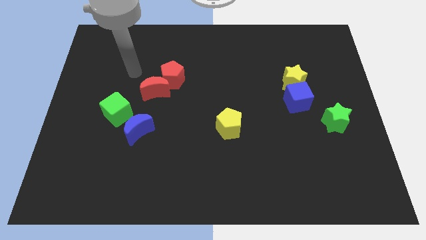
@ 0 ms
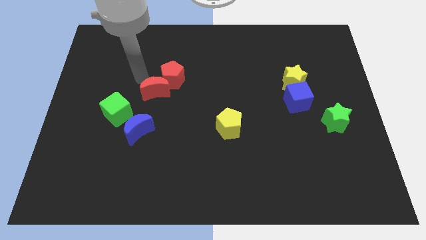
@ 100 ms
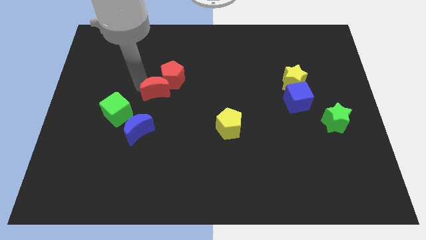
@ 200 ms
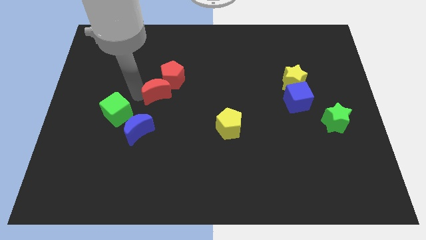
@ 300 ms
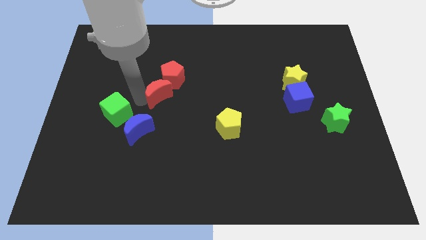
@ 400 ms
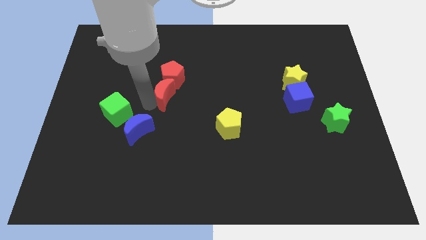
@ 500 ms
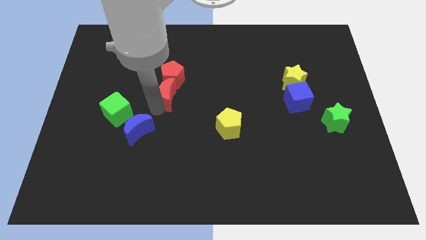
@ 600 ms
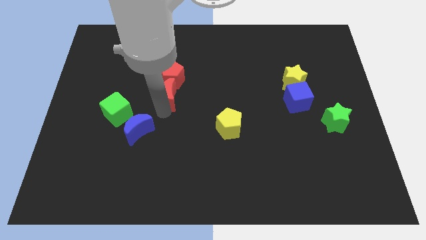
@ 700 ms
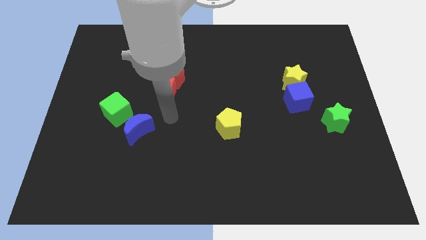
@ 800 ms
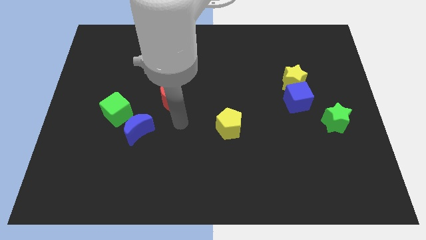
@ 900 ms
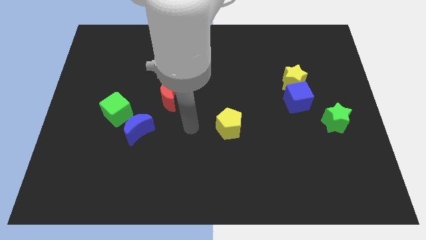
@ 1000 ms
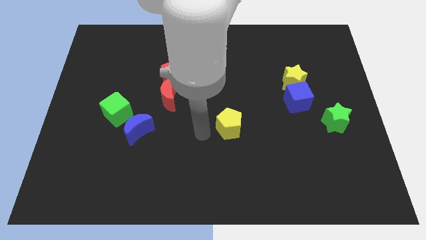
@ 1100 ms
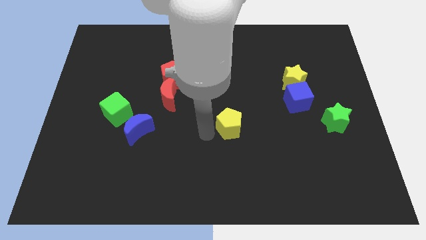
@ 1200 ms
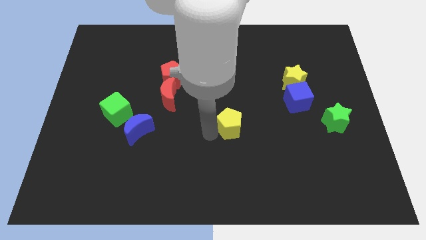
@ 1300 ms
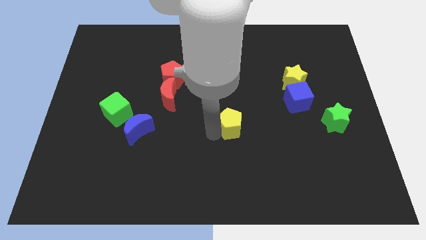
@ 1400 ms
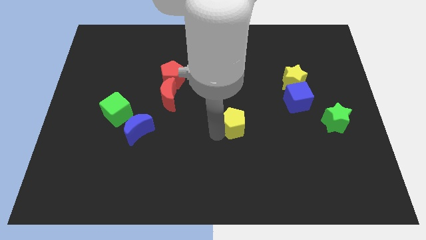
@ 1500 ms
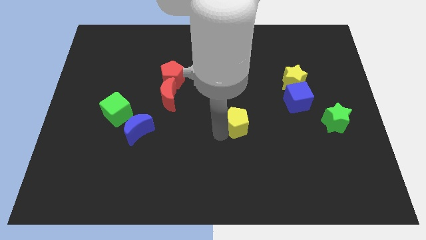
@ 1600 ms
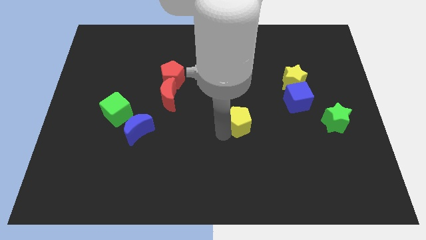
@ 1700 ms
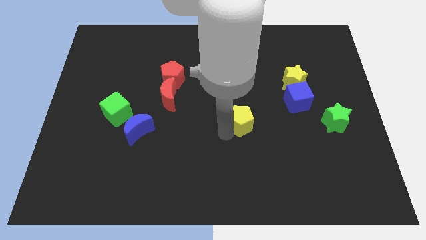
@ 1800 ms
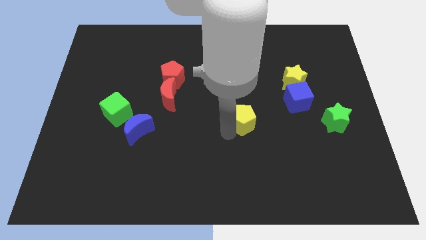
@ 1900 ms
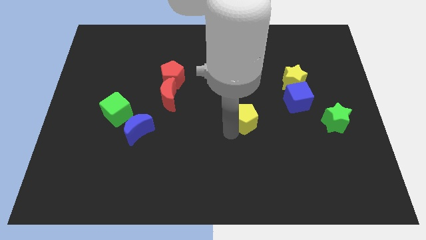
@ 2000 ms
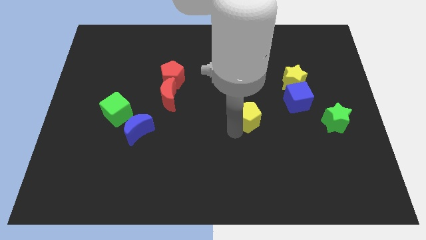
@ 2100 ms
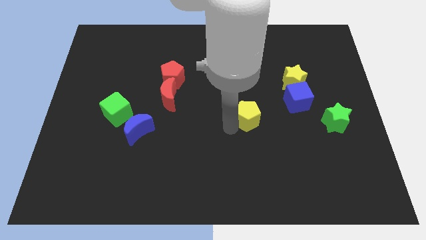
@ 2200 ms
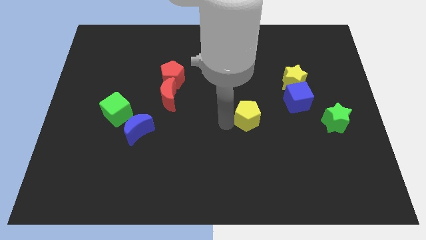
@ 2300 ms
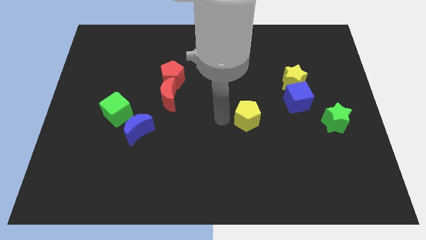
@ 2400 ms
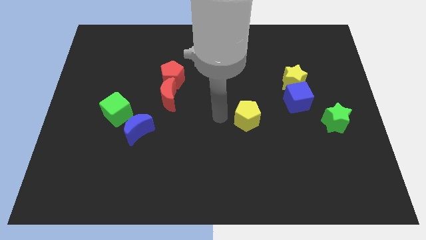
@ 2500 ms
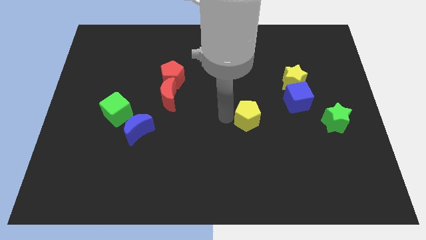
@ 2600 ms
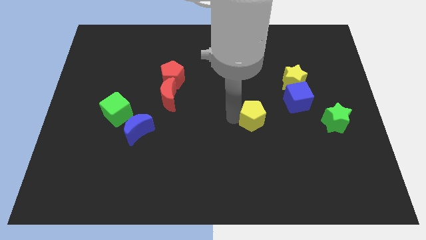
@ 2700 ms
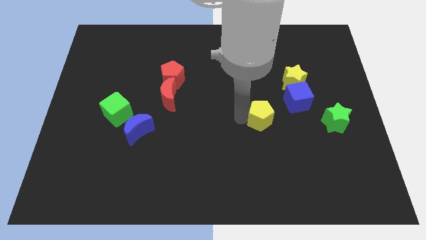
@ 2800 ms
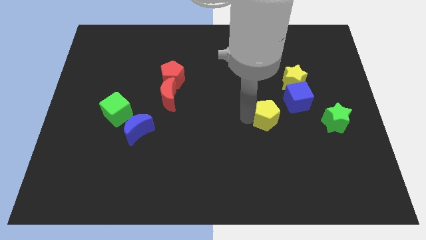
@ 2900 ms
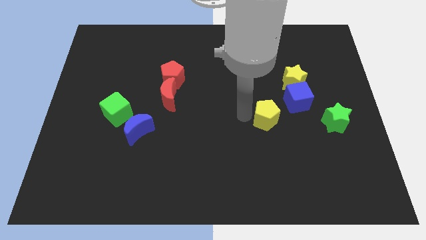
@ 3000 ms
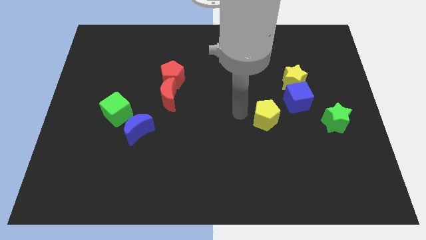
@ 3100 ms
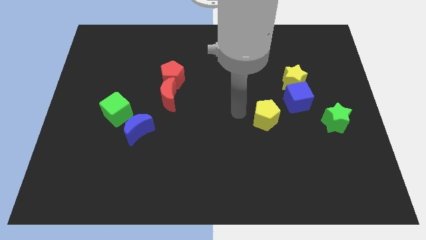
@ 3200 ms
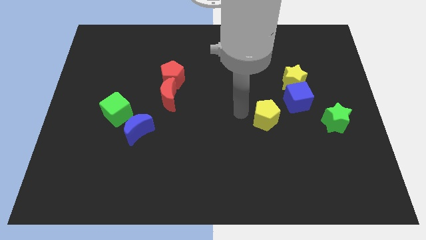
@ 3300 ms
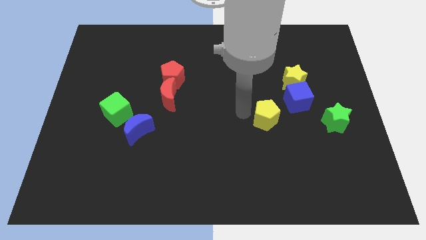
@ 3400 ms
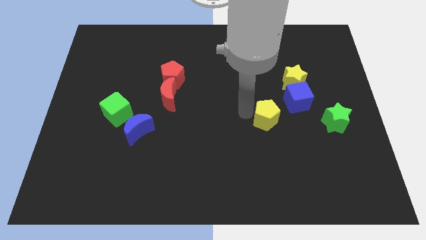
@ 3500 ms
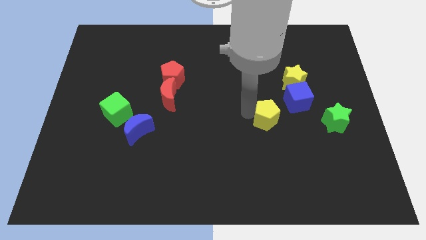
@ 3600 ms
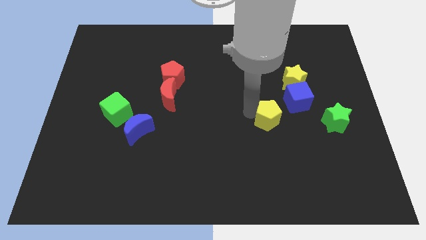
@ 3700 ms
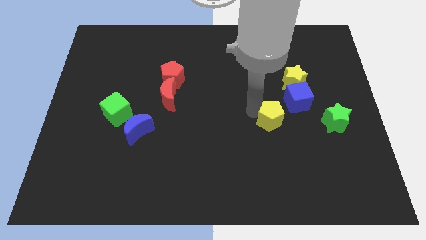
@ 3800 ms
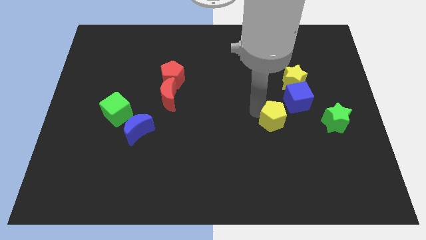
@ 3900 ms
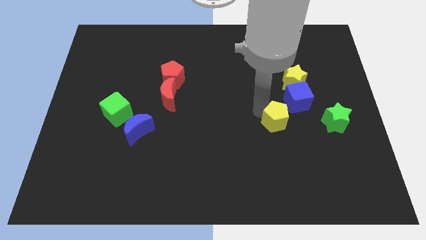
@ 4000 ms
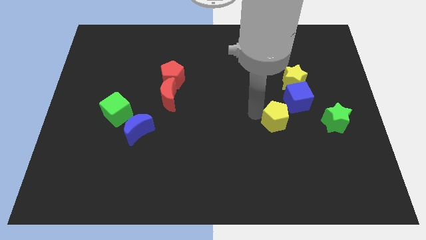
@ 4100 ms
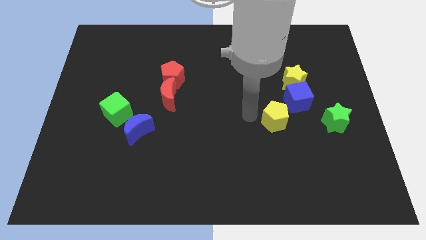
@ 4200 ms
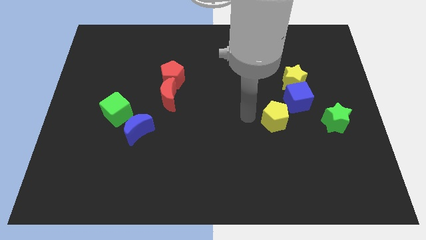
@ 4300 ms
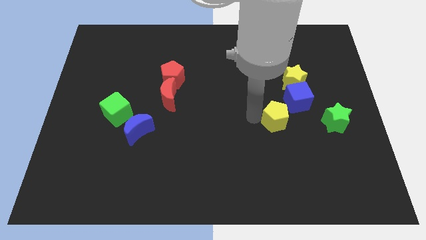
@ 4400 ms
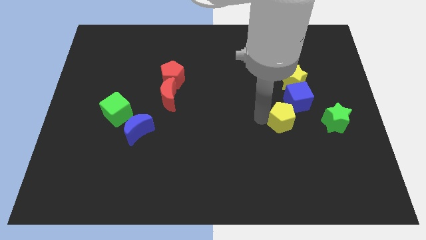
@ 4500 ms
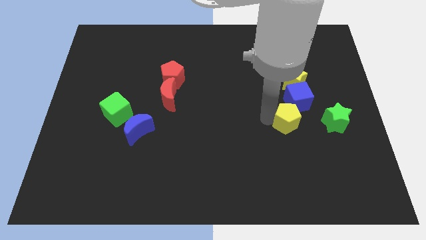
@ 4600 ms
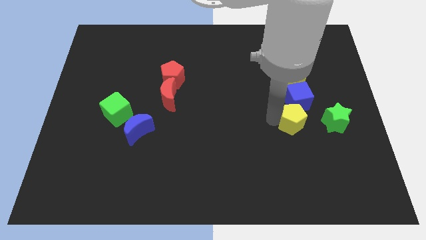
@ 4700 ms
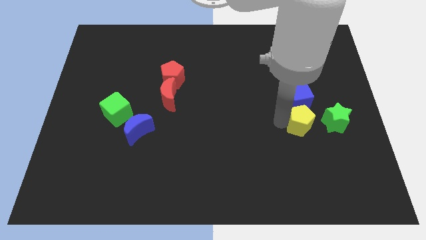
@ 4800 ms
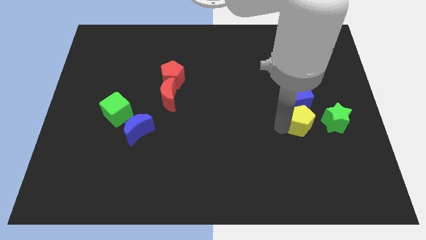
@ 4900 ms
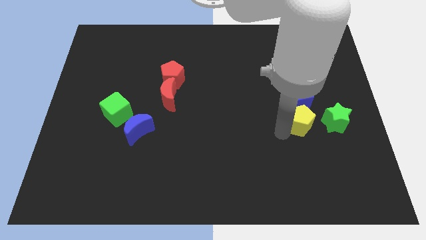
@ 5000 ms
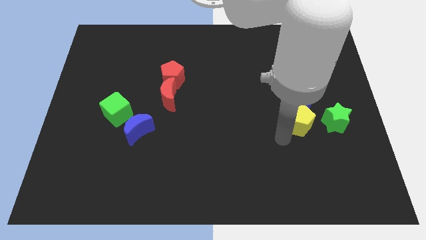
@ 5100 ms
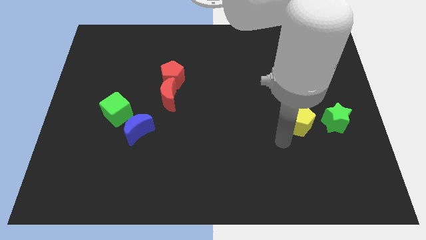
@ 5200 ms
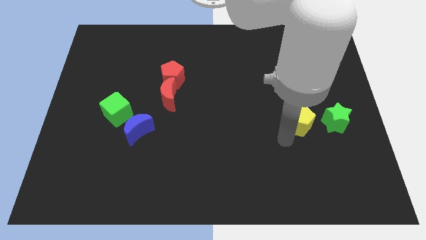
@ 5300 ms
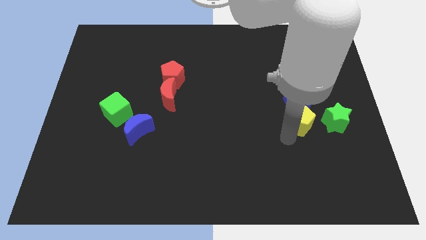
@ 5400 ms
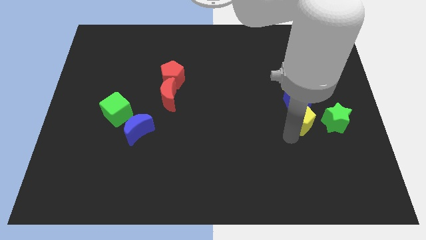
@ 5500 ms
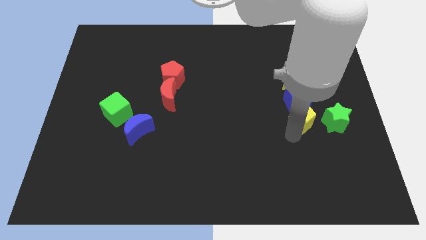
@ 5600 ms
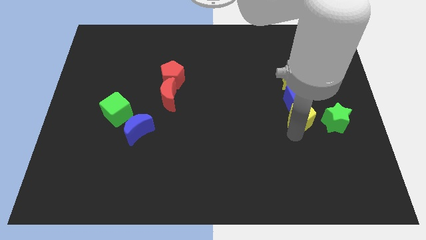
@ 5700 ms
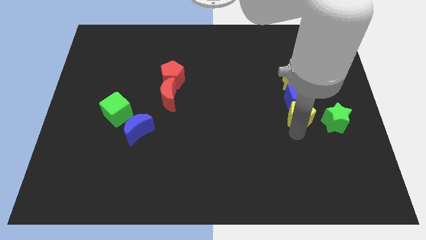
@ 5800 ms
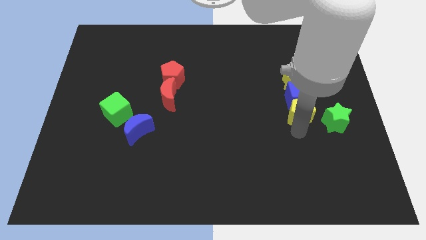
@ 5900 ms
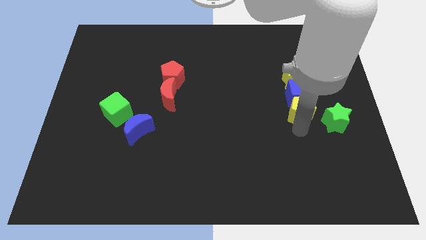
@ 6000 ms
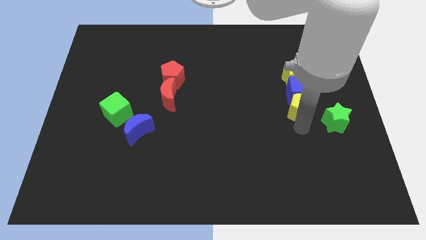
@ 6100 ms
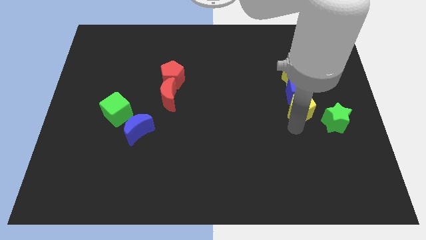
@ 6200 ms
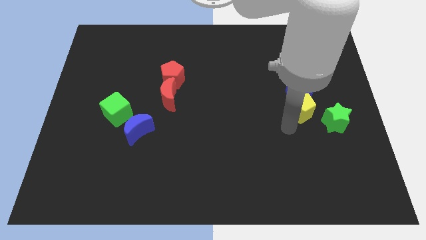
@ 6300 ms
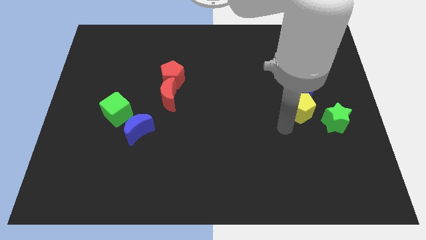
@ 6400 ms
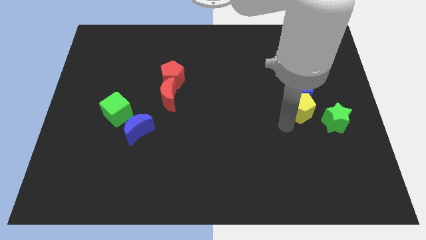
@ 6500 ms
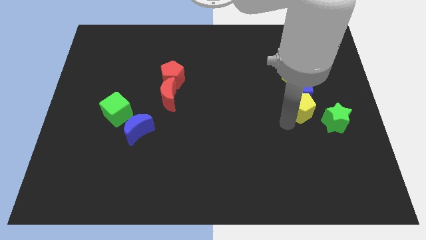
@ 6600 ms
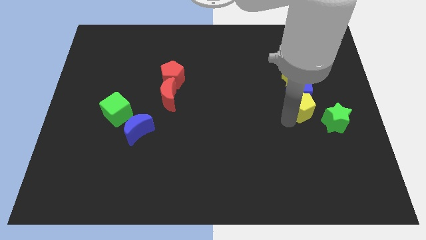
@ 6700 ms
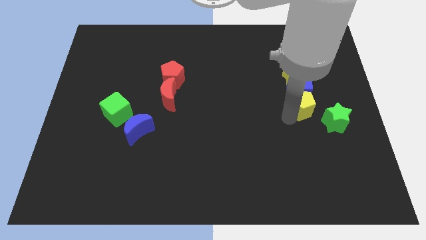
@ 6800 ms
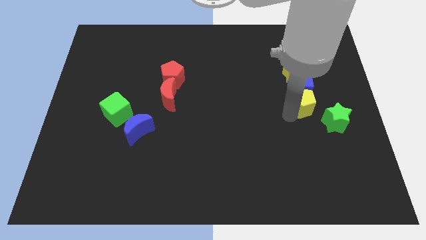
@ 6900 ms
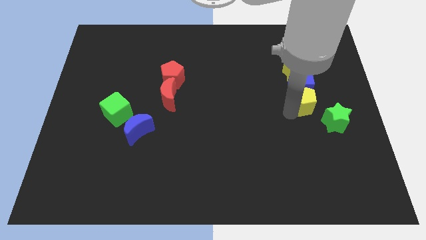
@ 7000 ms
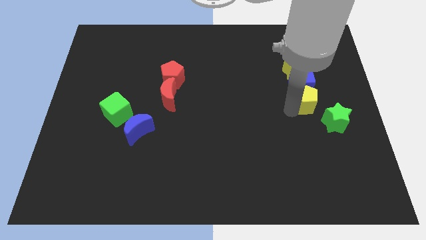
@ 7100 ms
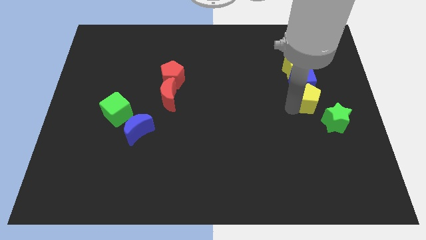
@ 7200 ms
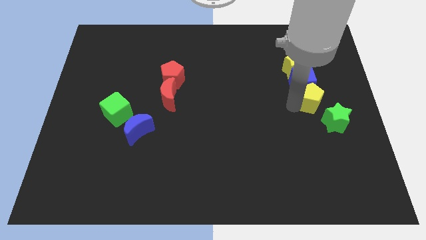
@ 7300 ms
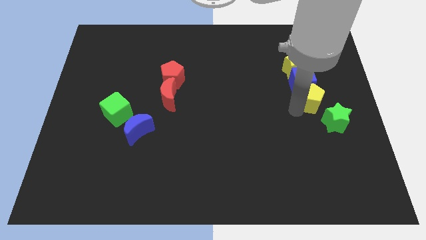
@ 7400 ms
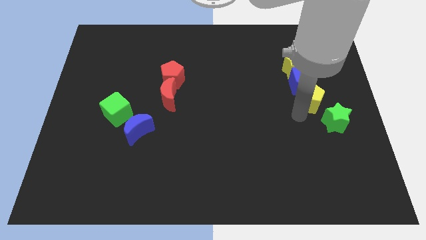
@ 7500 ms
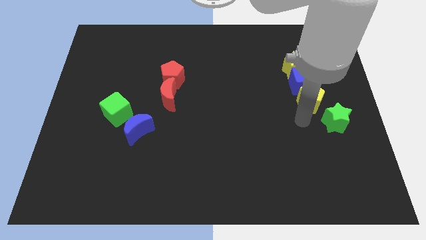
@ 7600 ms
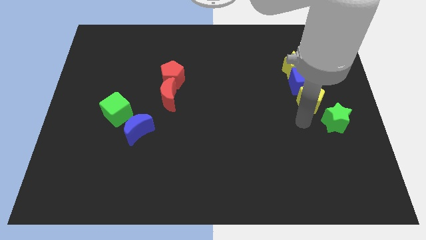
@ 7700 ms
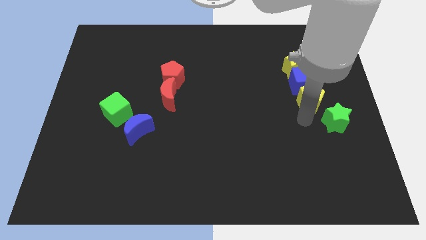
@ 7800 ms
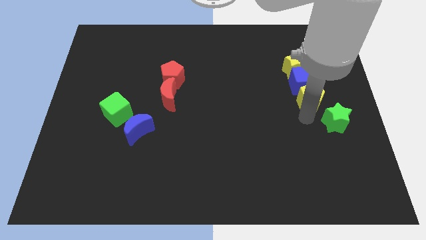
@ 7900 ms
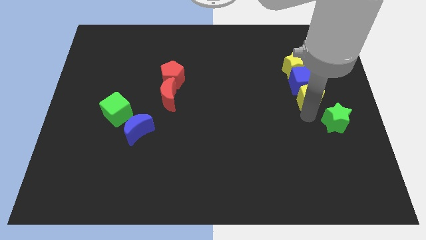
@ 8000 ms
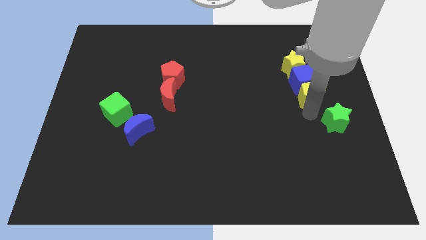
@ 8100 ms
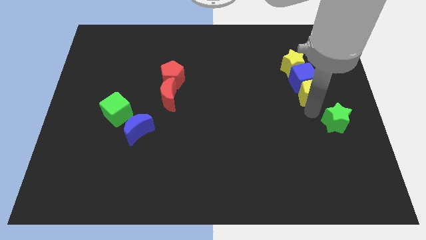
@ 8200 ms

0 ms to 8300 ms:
put the yellow pentagon diagonally down and to the right of the yellow star

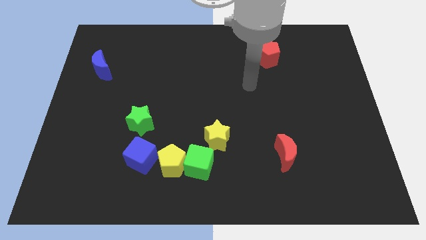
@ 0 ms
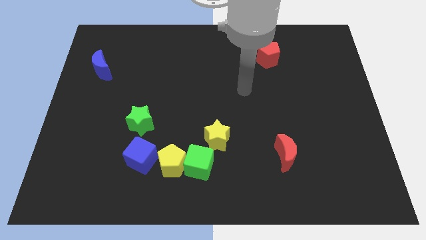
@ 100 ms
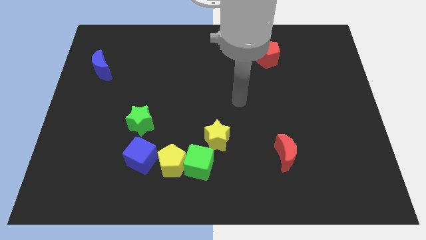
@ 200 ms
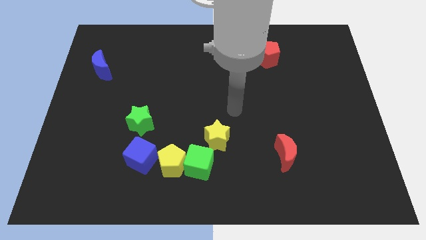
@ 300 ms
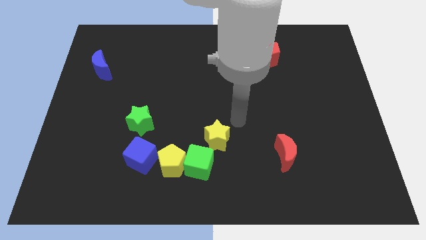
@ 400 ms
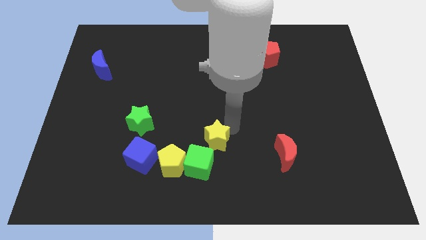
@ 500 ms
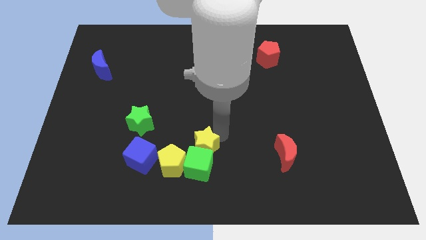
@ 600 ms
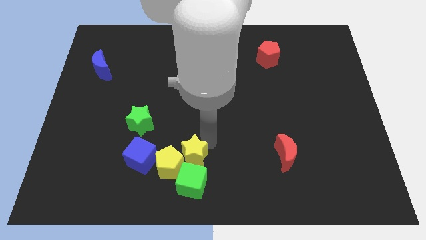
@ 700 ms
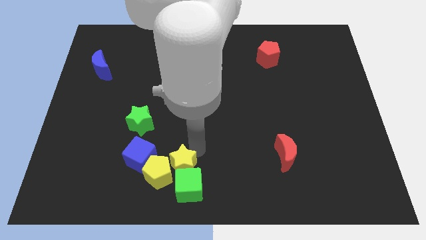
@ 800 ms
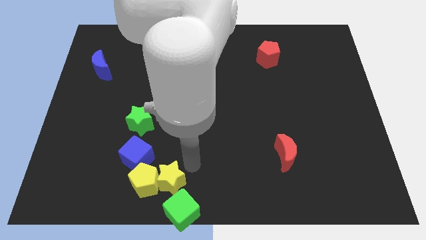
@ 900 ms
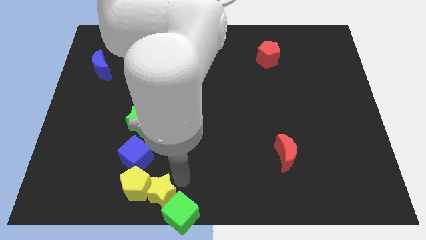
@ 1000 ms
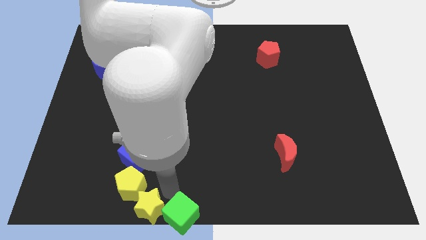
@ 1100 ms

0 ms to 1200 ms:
move the yellow pentagon to the bottom left of the blue cube
